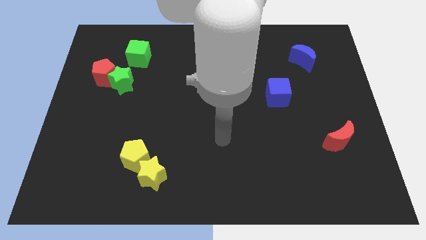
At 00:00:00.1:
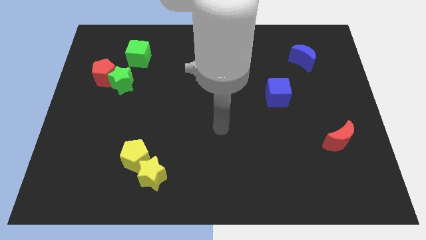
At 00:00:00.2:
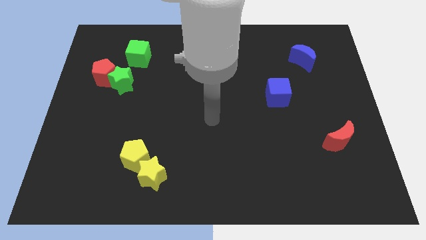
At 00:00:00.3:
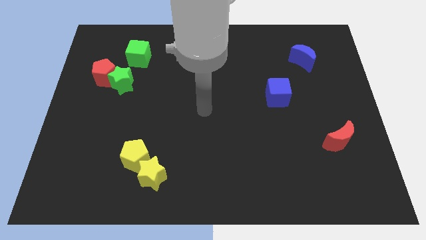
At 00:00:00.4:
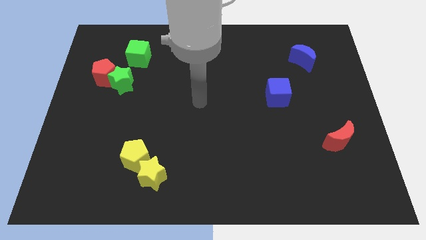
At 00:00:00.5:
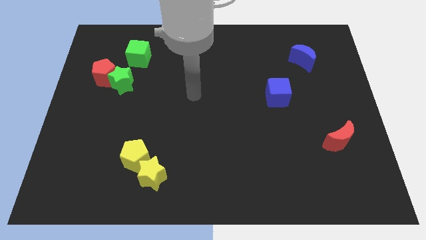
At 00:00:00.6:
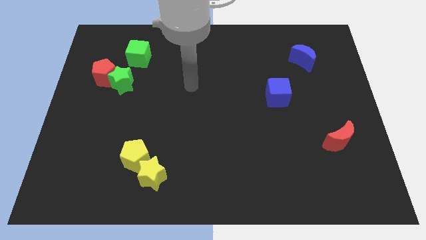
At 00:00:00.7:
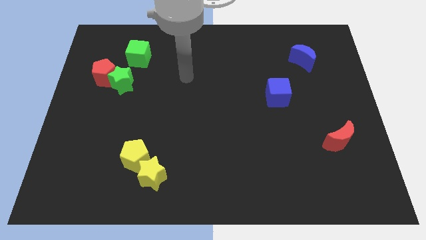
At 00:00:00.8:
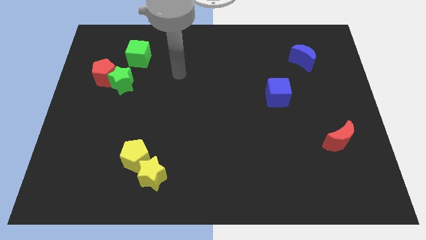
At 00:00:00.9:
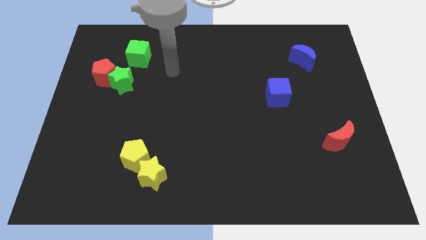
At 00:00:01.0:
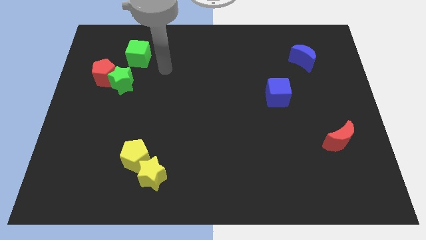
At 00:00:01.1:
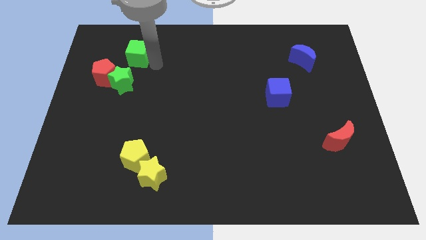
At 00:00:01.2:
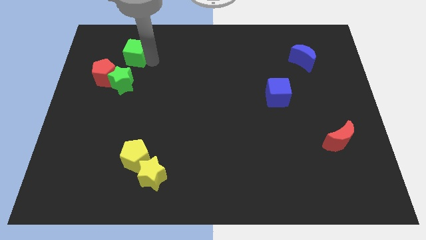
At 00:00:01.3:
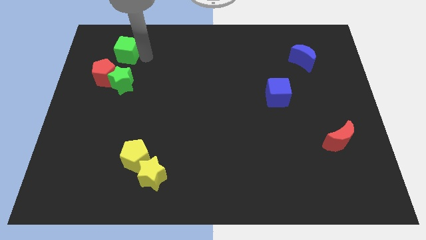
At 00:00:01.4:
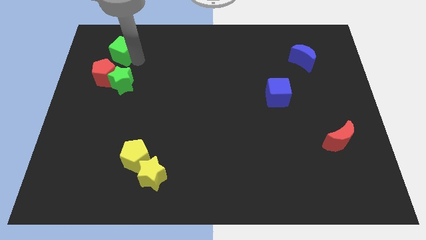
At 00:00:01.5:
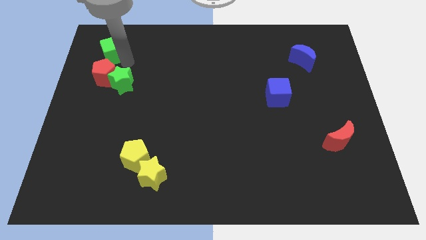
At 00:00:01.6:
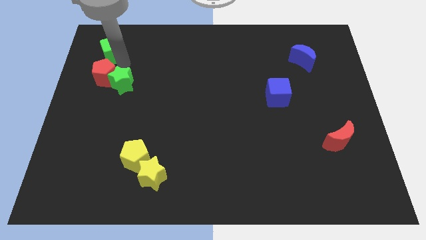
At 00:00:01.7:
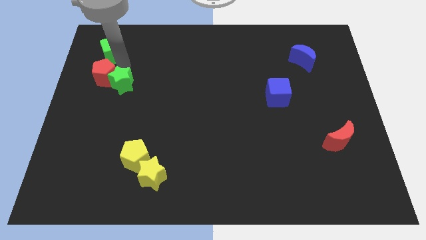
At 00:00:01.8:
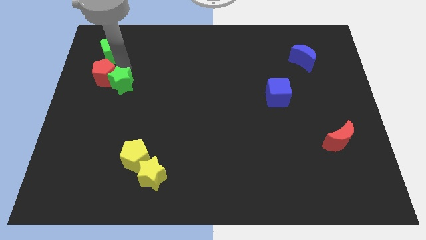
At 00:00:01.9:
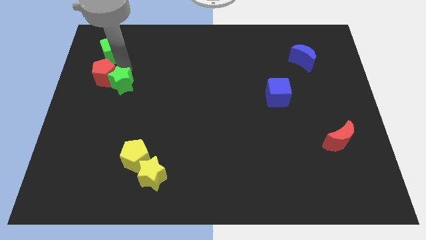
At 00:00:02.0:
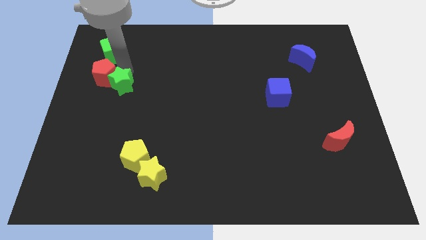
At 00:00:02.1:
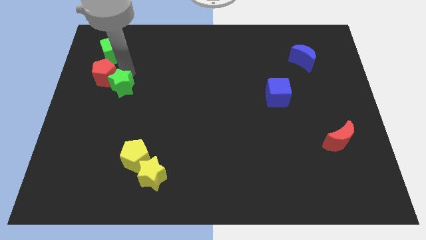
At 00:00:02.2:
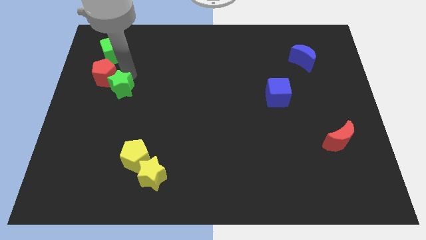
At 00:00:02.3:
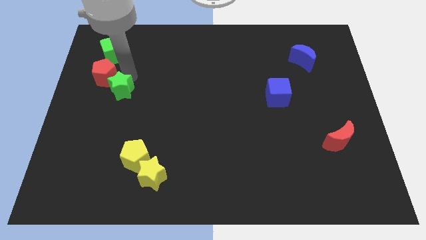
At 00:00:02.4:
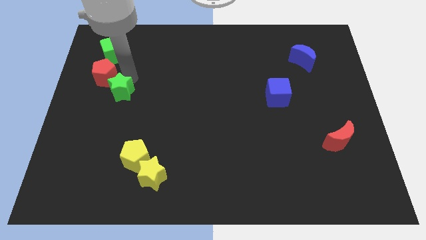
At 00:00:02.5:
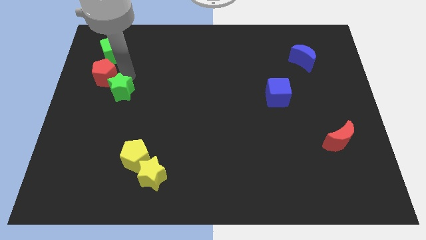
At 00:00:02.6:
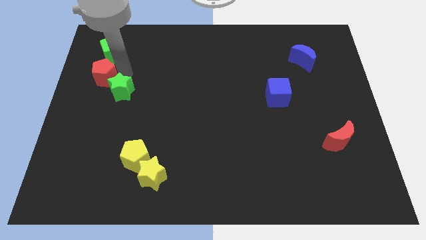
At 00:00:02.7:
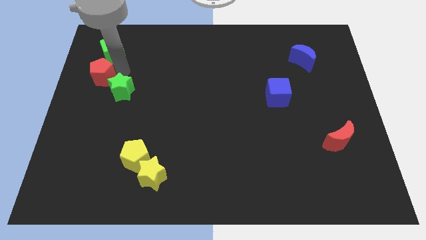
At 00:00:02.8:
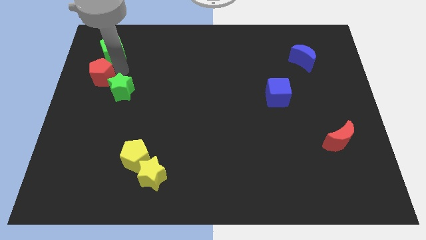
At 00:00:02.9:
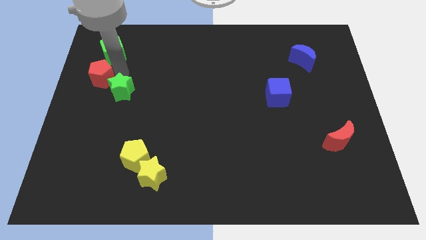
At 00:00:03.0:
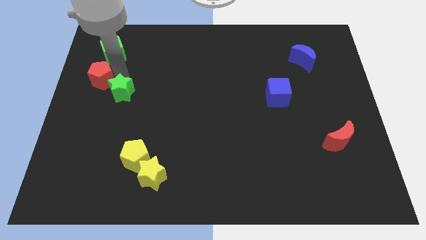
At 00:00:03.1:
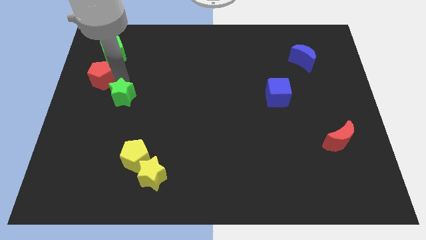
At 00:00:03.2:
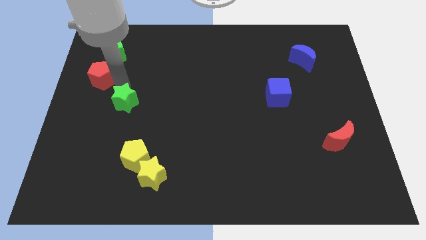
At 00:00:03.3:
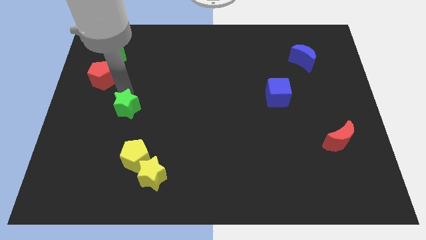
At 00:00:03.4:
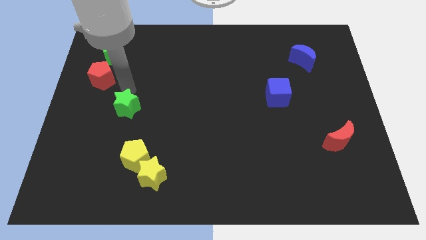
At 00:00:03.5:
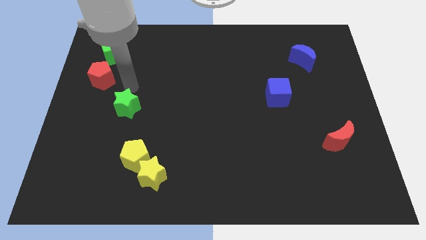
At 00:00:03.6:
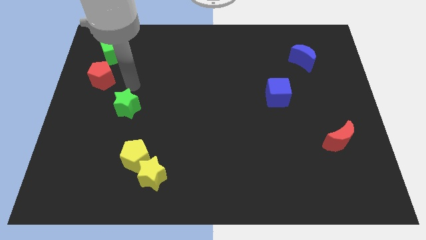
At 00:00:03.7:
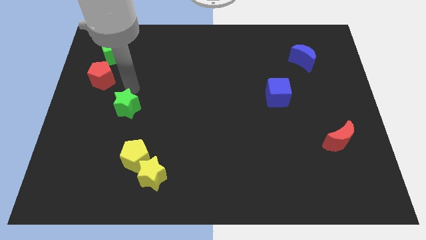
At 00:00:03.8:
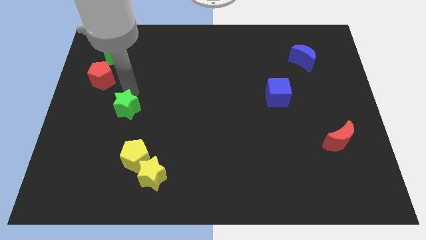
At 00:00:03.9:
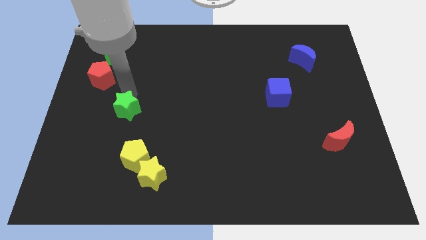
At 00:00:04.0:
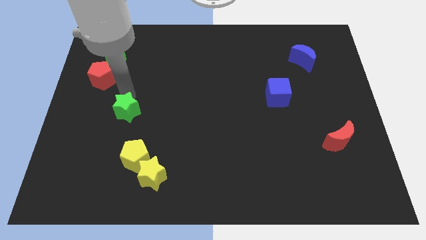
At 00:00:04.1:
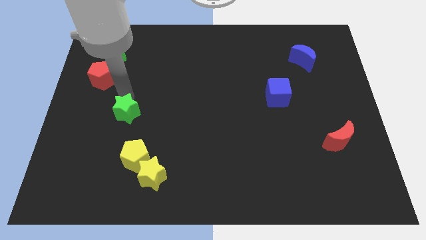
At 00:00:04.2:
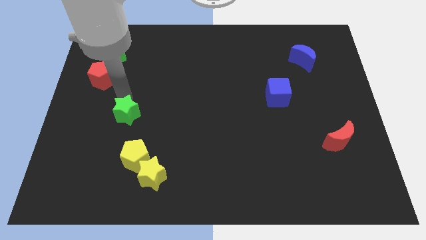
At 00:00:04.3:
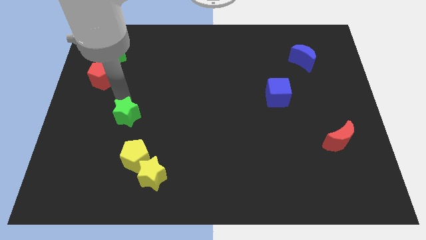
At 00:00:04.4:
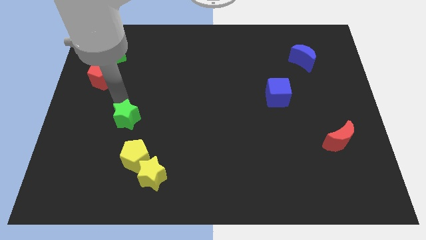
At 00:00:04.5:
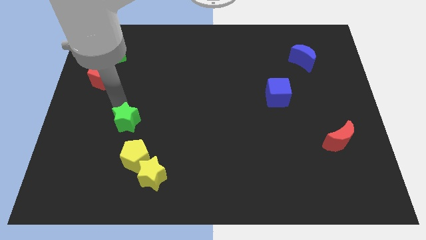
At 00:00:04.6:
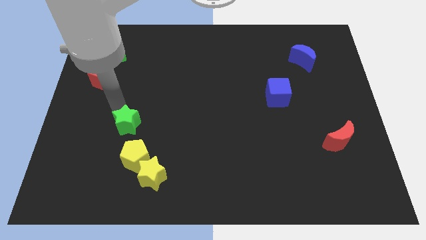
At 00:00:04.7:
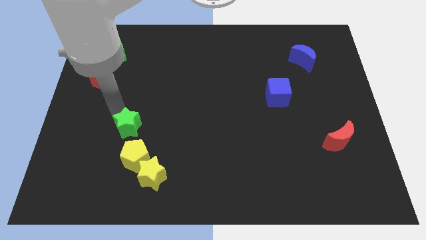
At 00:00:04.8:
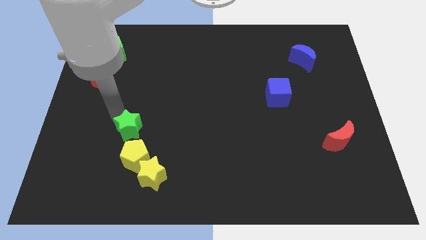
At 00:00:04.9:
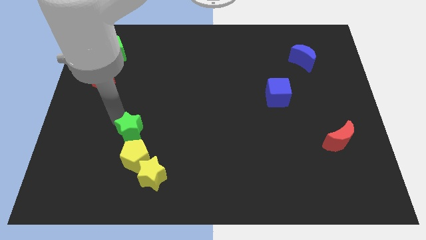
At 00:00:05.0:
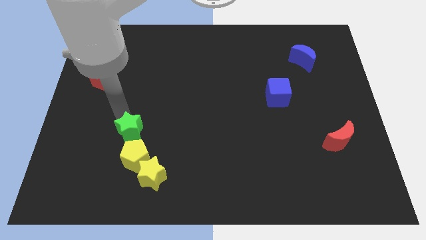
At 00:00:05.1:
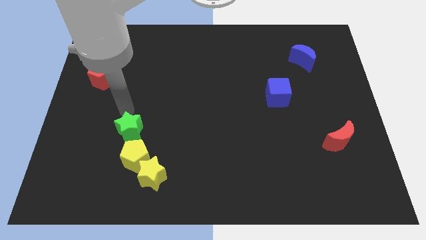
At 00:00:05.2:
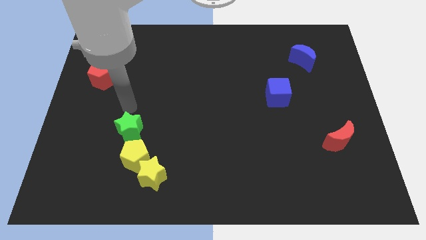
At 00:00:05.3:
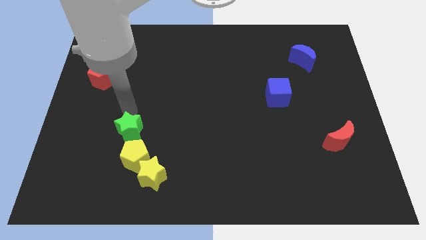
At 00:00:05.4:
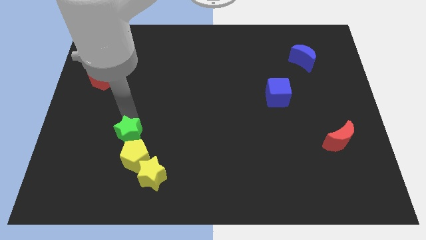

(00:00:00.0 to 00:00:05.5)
put the green star to the top left side of the yellow star

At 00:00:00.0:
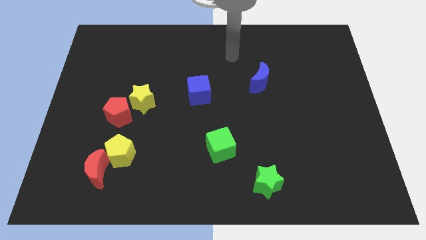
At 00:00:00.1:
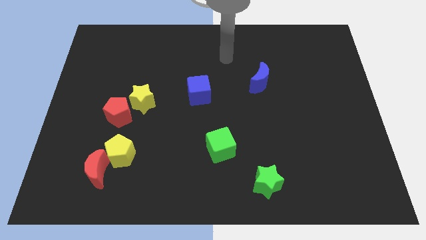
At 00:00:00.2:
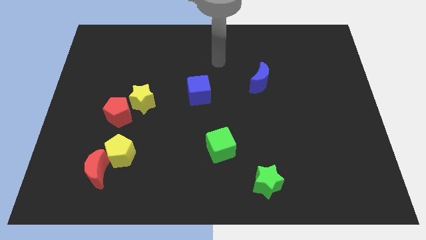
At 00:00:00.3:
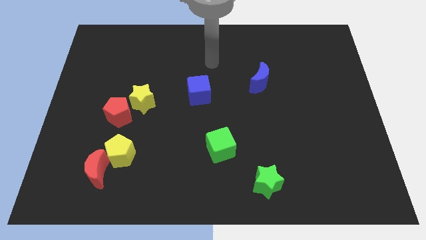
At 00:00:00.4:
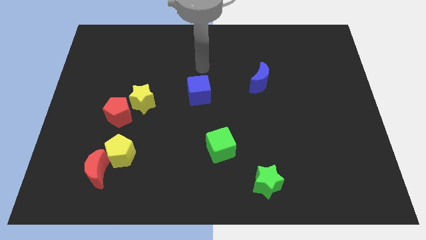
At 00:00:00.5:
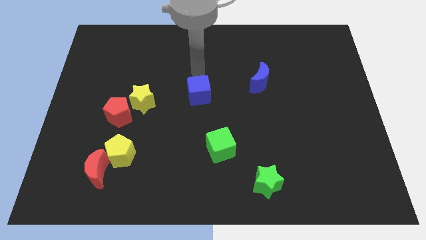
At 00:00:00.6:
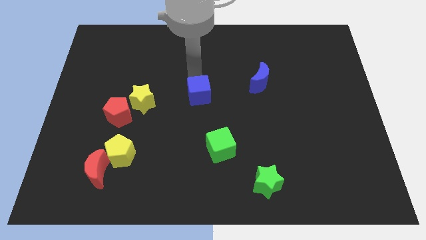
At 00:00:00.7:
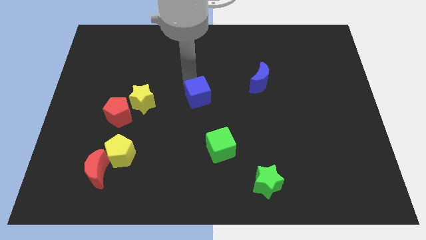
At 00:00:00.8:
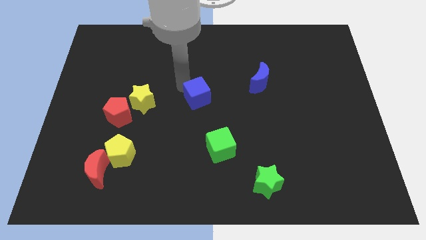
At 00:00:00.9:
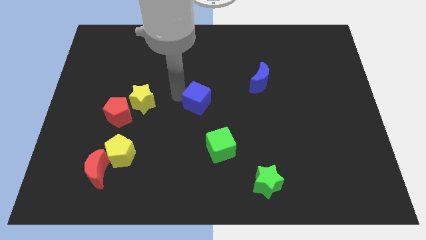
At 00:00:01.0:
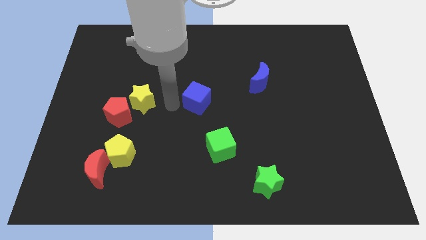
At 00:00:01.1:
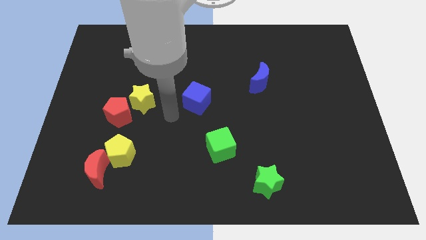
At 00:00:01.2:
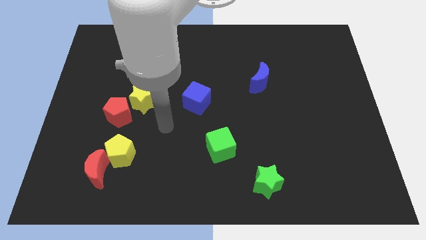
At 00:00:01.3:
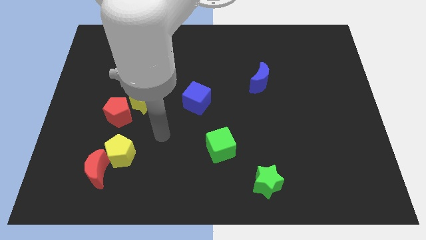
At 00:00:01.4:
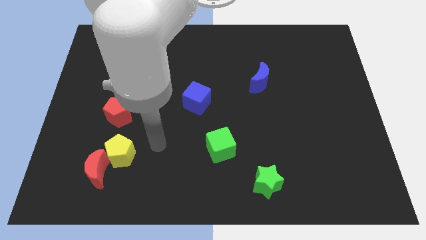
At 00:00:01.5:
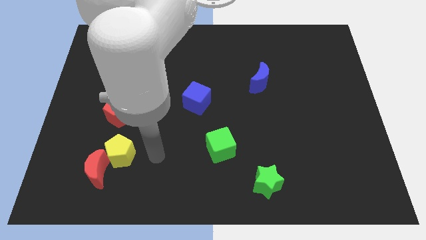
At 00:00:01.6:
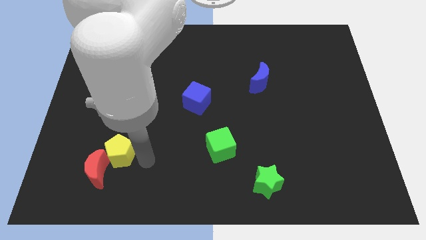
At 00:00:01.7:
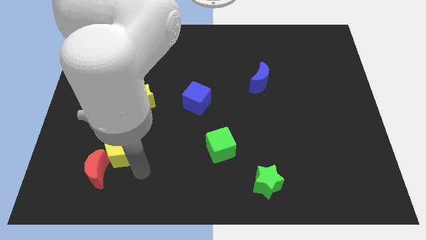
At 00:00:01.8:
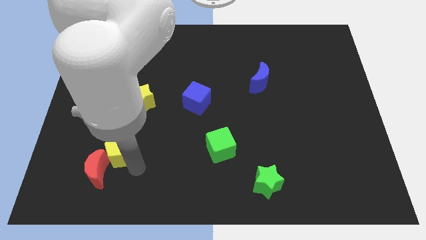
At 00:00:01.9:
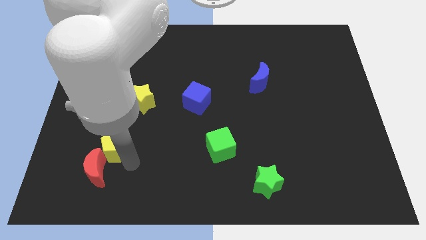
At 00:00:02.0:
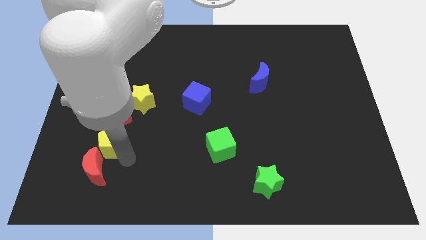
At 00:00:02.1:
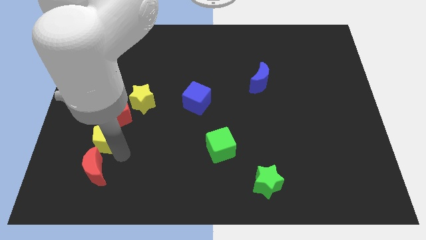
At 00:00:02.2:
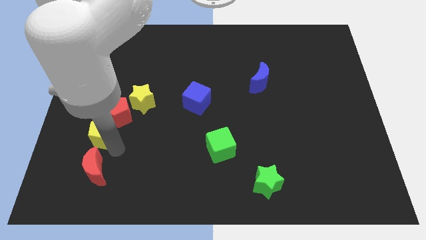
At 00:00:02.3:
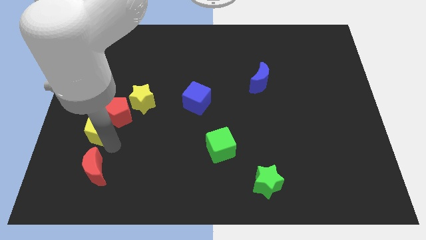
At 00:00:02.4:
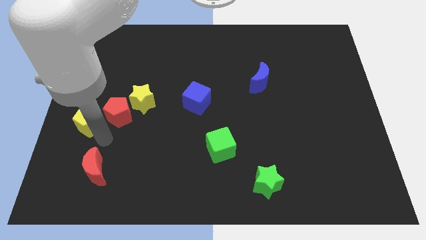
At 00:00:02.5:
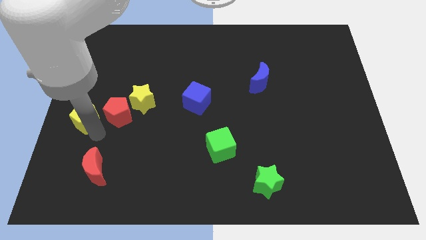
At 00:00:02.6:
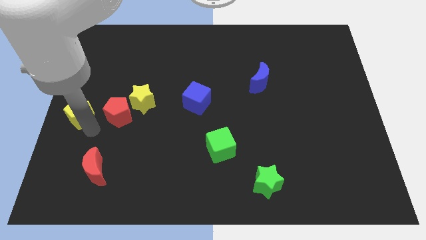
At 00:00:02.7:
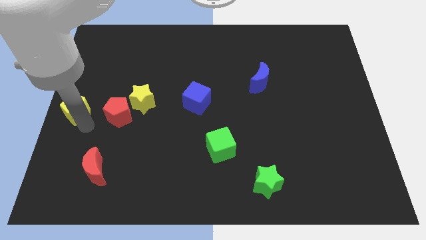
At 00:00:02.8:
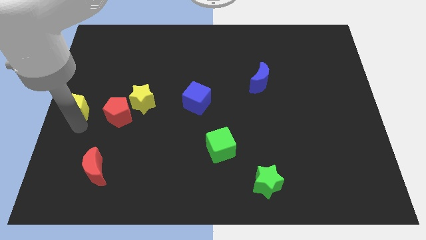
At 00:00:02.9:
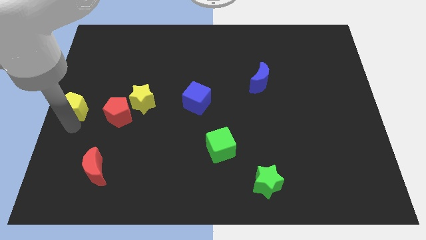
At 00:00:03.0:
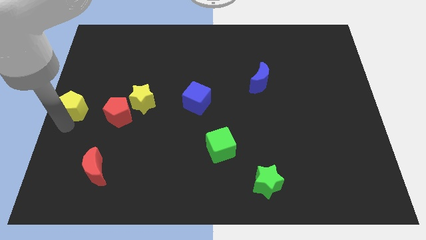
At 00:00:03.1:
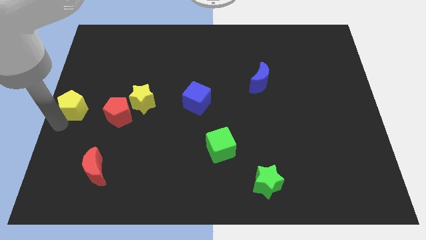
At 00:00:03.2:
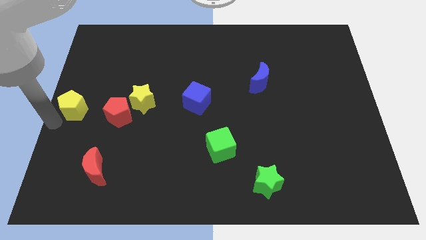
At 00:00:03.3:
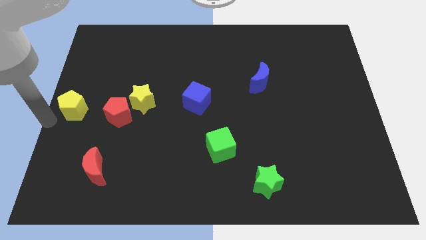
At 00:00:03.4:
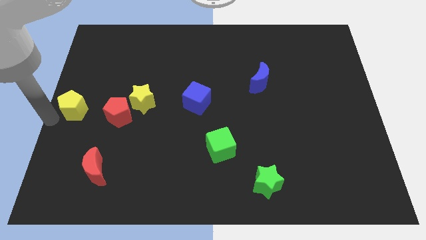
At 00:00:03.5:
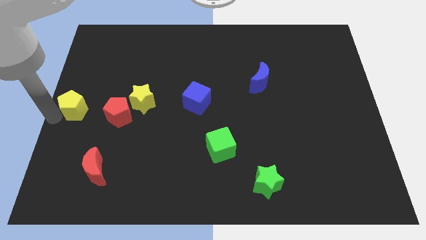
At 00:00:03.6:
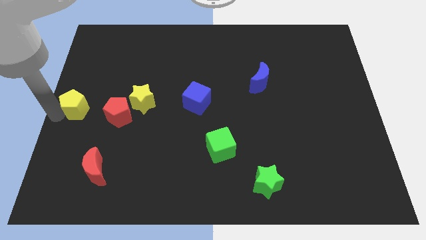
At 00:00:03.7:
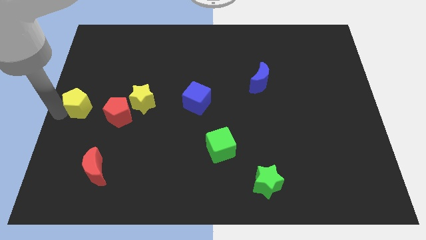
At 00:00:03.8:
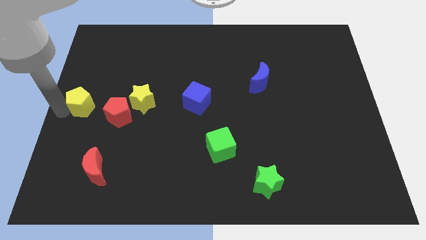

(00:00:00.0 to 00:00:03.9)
push the yellow pentagon to the top left side of the red pentagon
